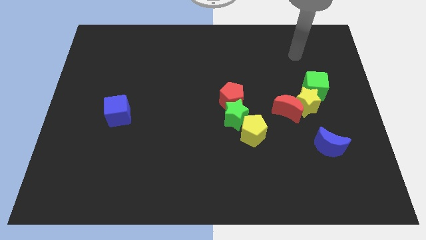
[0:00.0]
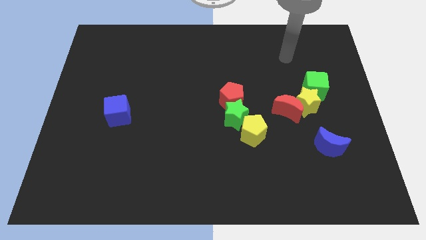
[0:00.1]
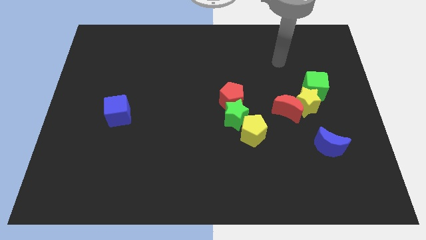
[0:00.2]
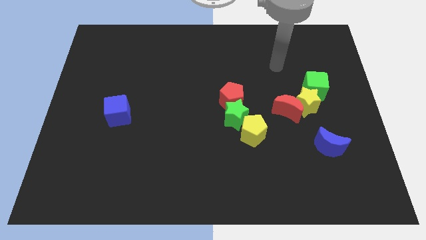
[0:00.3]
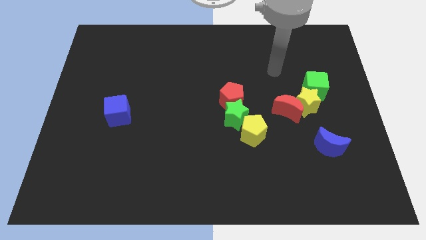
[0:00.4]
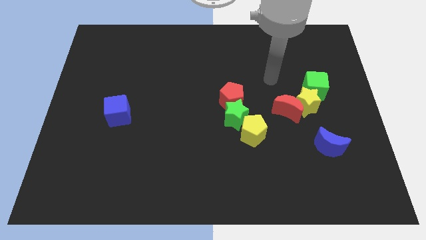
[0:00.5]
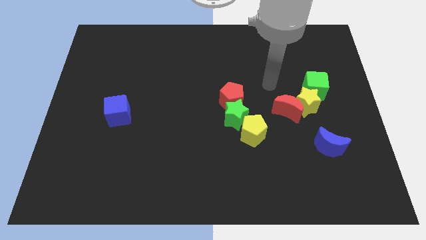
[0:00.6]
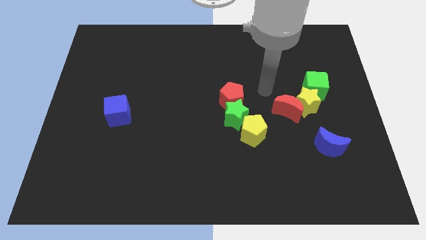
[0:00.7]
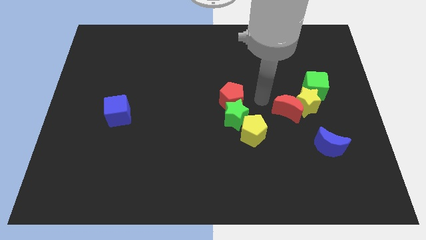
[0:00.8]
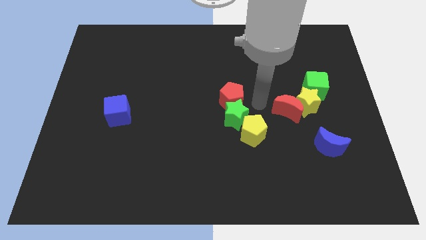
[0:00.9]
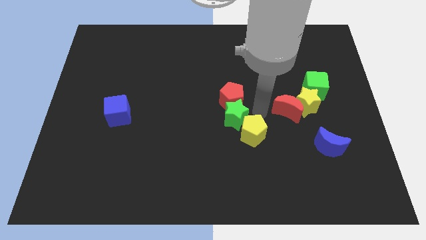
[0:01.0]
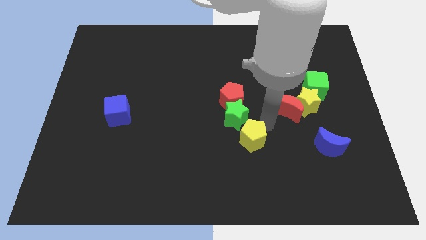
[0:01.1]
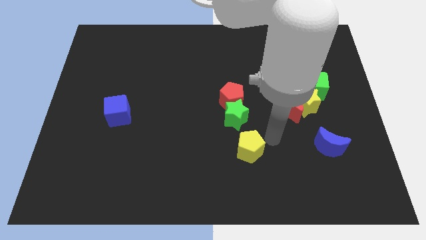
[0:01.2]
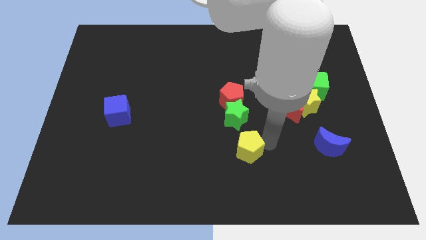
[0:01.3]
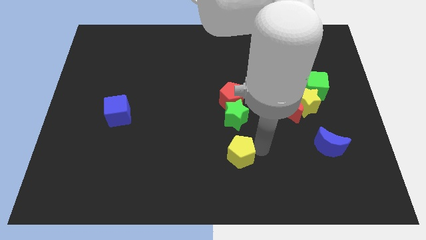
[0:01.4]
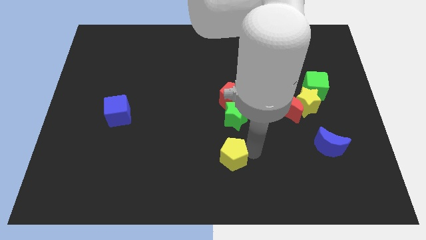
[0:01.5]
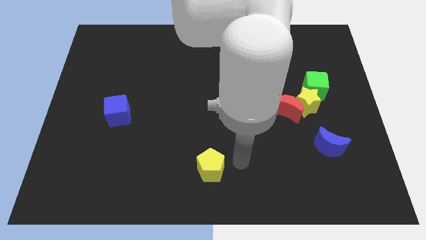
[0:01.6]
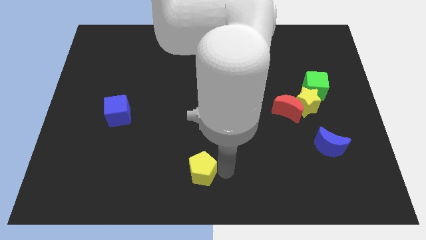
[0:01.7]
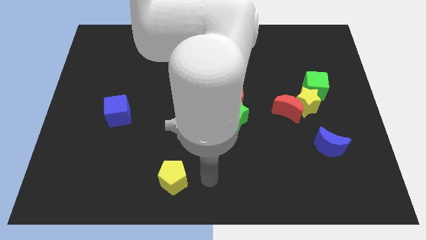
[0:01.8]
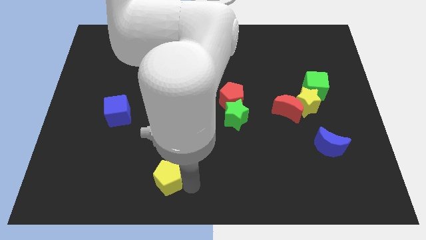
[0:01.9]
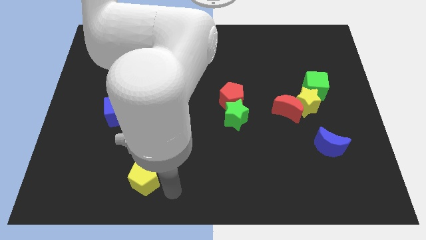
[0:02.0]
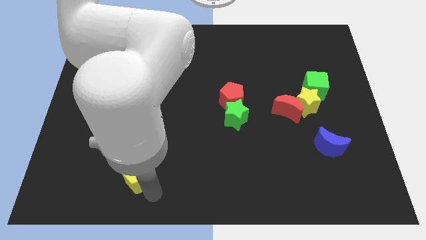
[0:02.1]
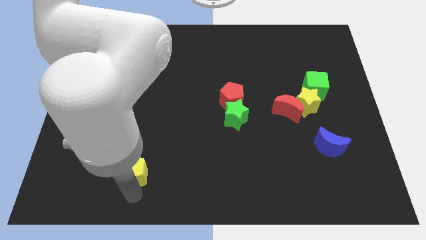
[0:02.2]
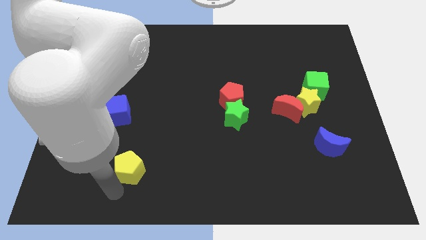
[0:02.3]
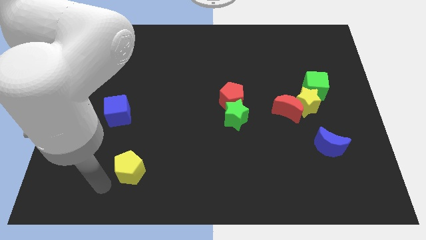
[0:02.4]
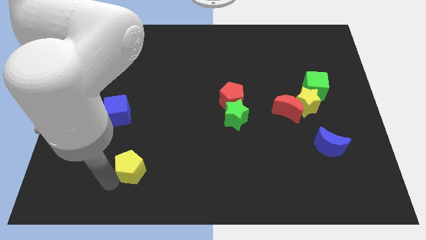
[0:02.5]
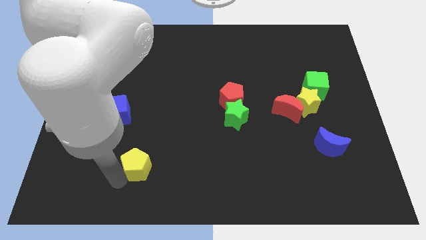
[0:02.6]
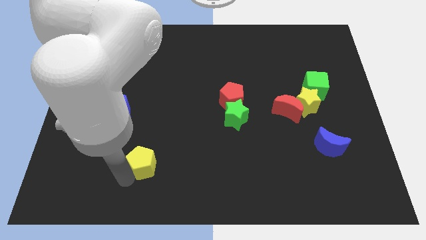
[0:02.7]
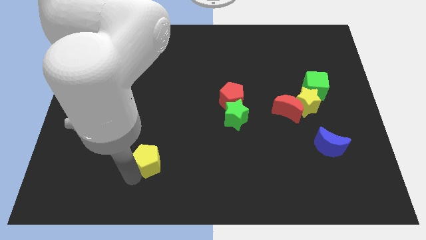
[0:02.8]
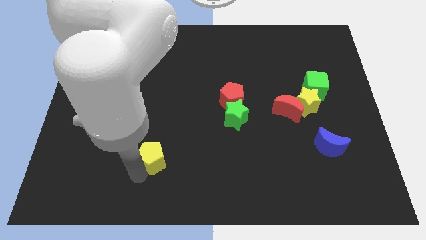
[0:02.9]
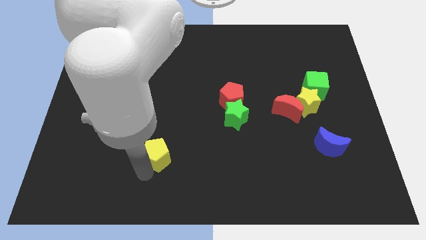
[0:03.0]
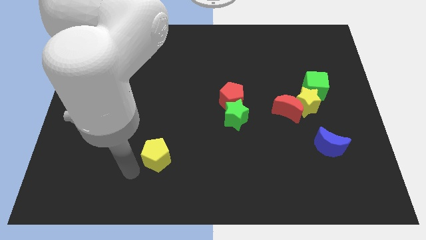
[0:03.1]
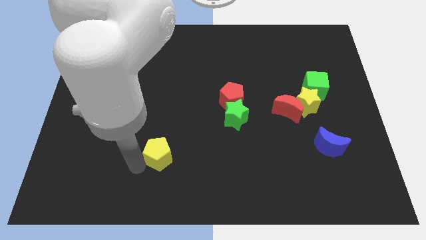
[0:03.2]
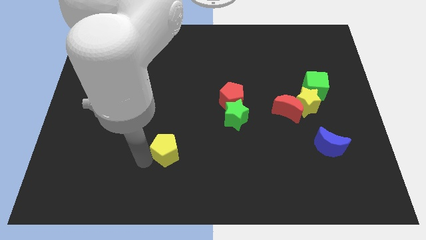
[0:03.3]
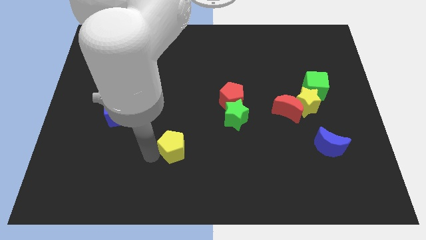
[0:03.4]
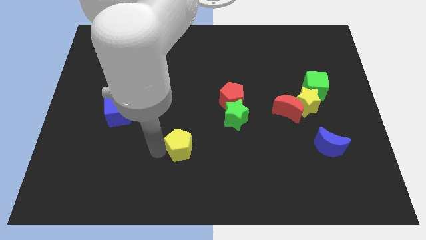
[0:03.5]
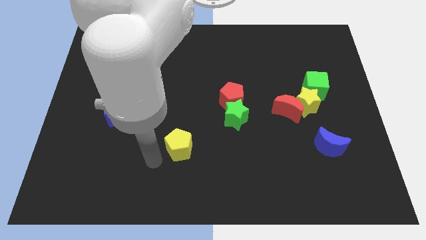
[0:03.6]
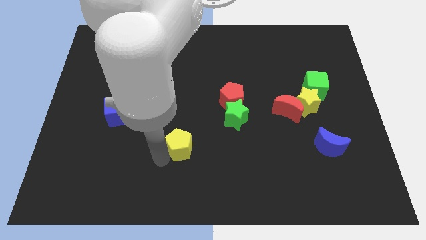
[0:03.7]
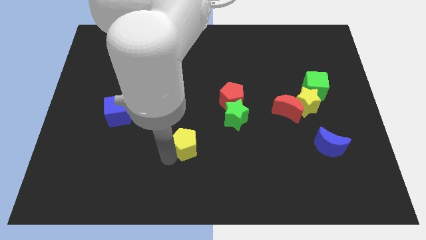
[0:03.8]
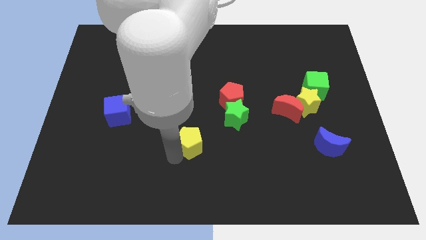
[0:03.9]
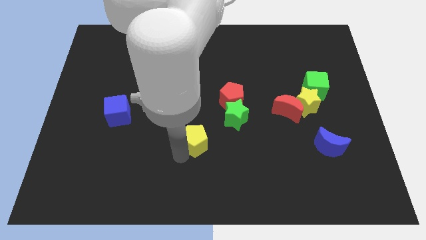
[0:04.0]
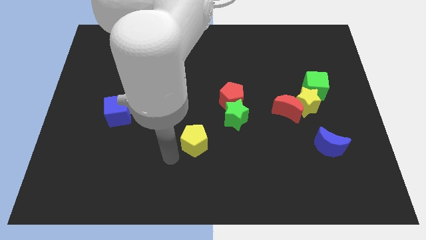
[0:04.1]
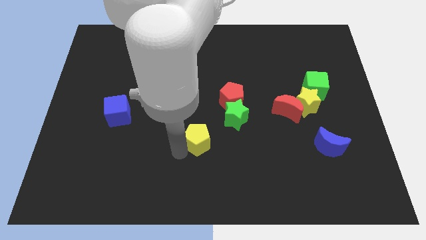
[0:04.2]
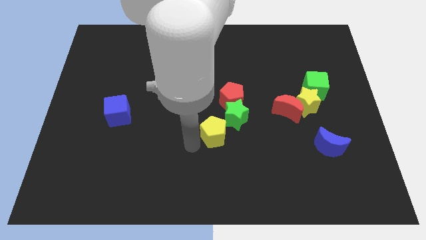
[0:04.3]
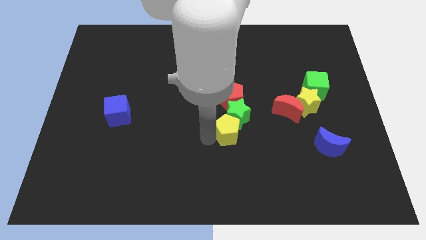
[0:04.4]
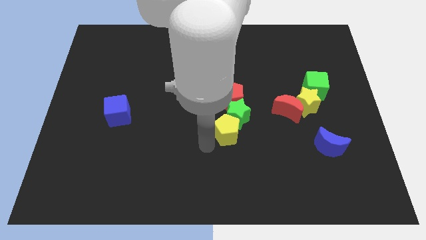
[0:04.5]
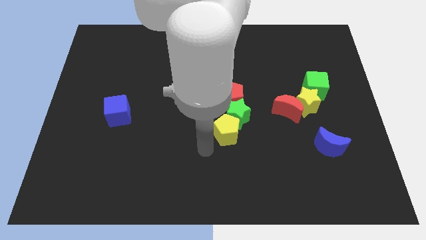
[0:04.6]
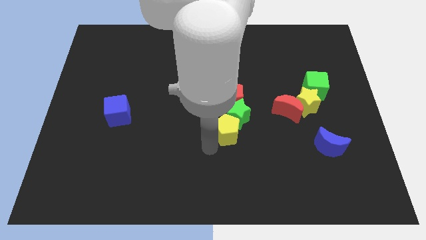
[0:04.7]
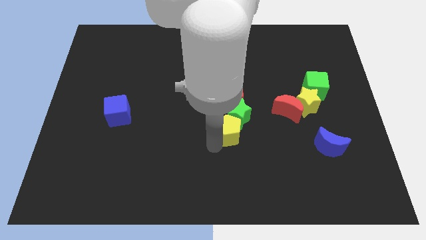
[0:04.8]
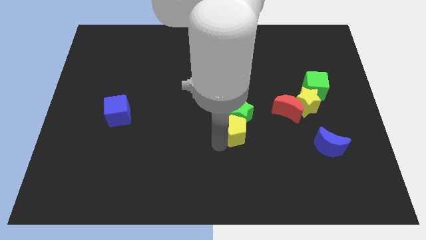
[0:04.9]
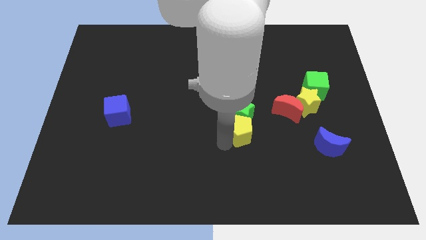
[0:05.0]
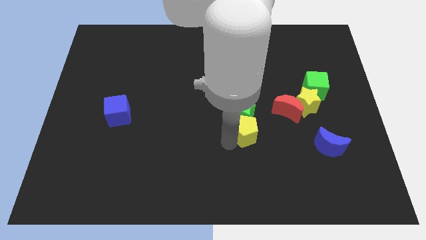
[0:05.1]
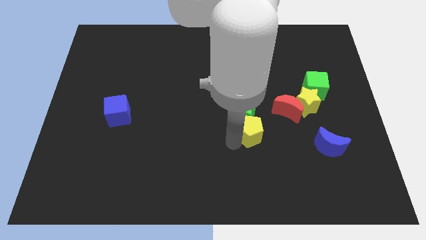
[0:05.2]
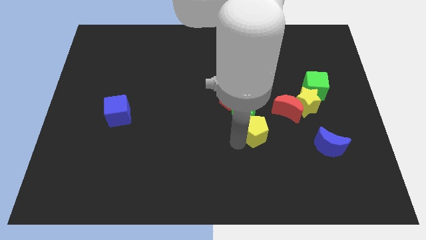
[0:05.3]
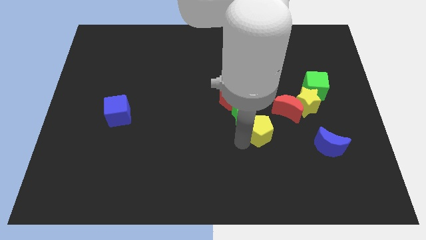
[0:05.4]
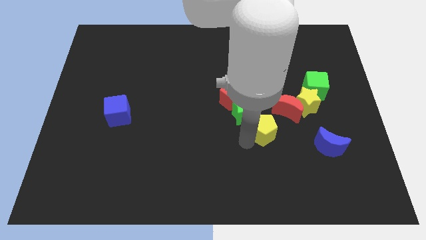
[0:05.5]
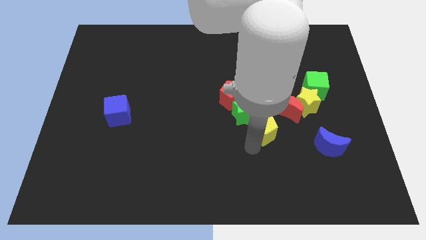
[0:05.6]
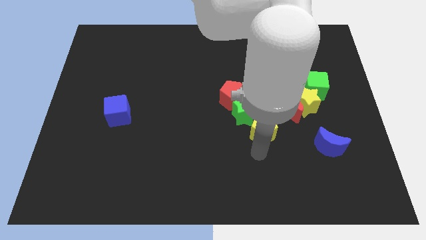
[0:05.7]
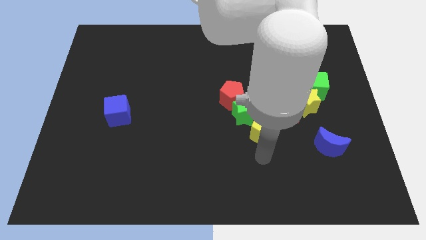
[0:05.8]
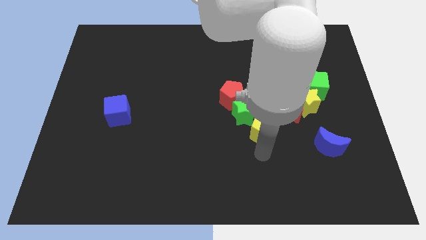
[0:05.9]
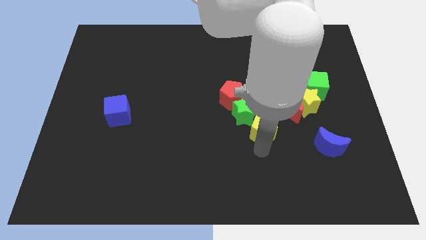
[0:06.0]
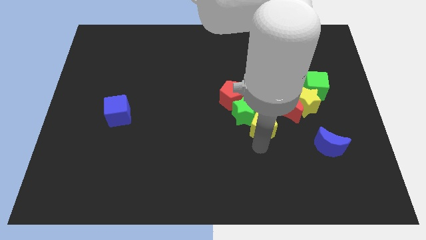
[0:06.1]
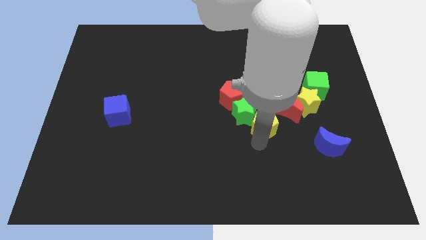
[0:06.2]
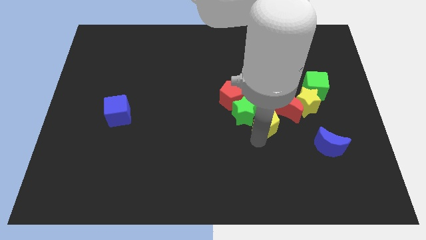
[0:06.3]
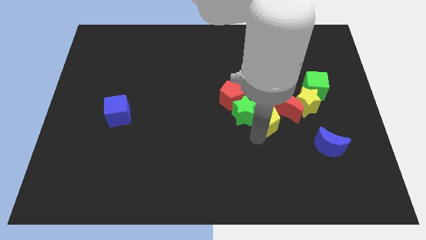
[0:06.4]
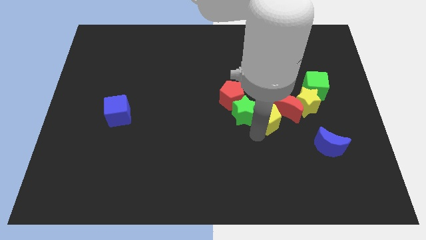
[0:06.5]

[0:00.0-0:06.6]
push the yellow pentagon to the left of the yellow star

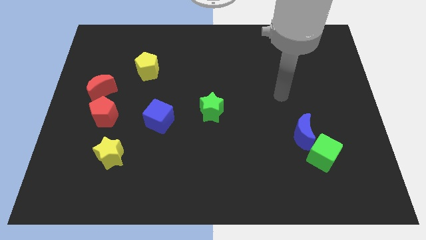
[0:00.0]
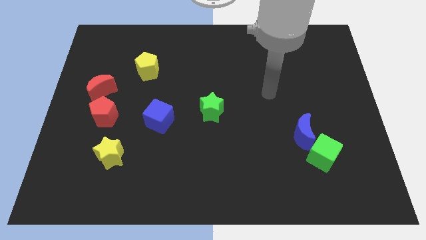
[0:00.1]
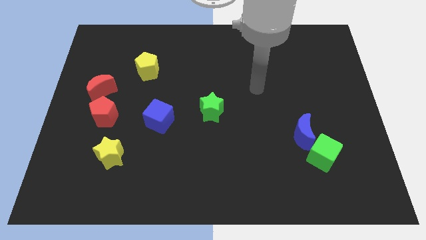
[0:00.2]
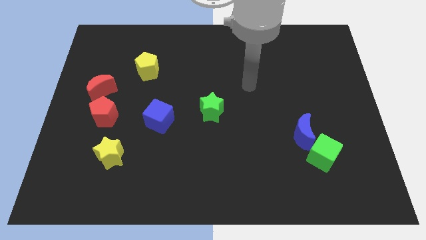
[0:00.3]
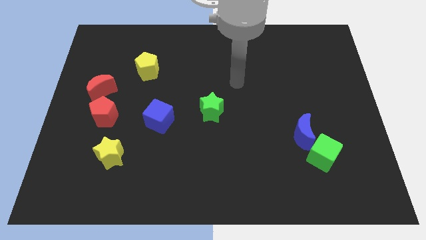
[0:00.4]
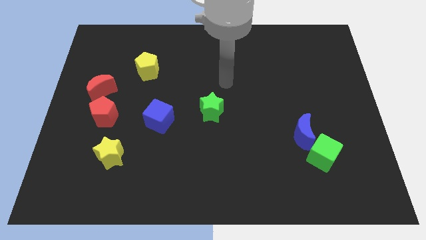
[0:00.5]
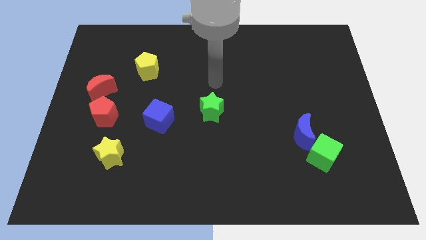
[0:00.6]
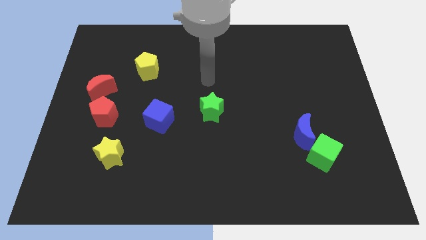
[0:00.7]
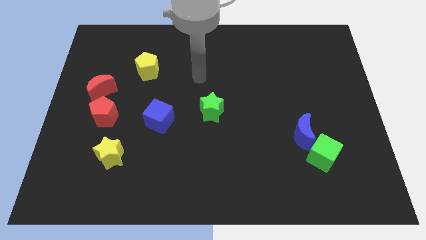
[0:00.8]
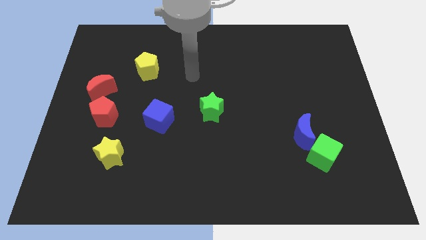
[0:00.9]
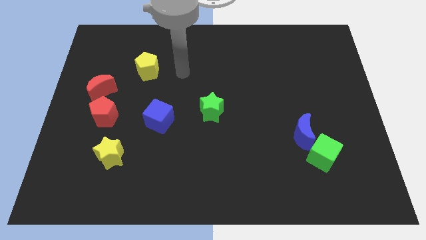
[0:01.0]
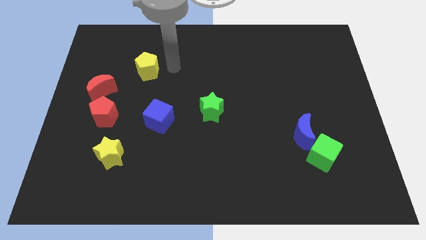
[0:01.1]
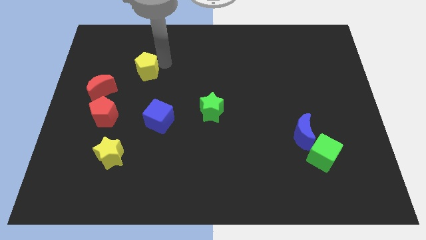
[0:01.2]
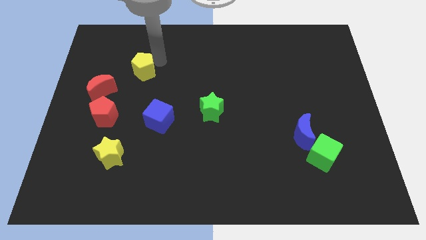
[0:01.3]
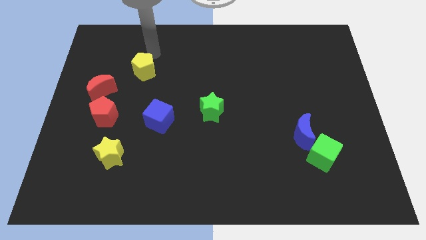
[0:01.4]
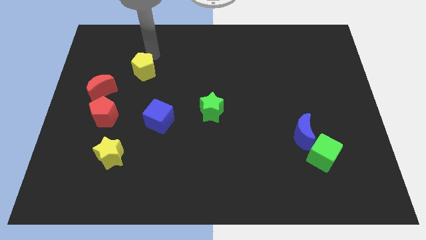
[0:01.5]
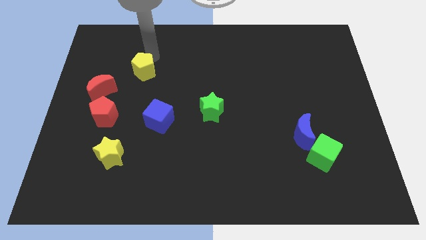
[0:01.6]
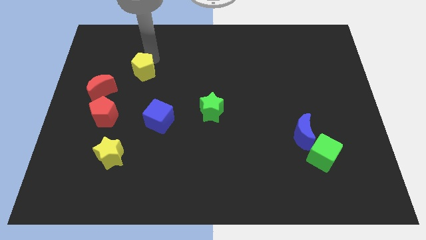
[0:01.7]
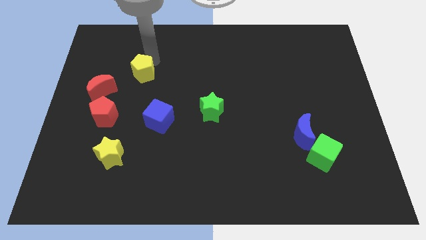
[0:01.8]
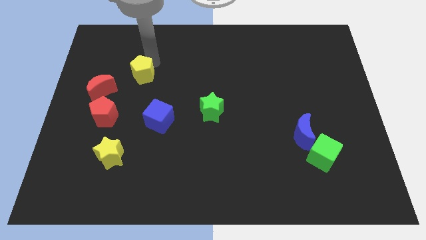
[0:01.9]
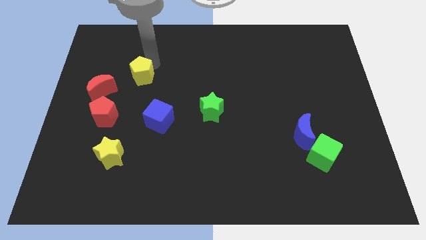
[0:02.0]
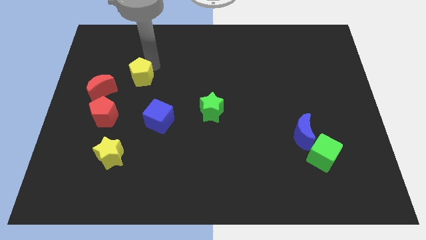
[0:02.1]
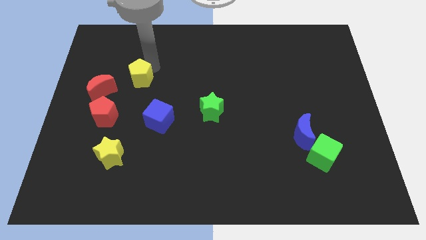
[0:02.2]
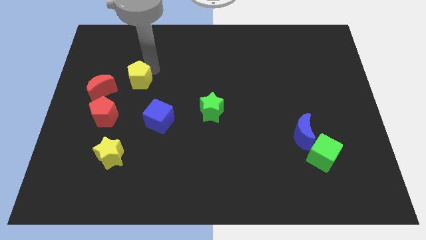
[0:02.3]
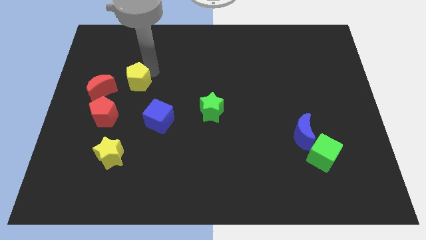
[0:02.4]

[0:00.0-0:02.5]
push the yellow pentagon diagonally up and to the right of the red pentagon
